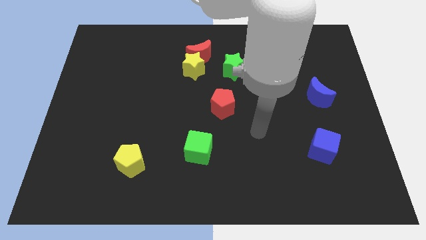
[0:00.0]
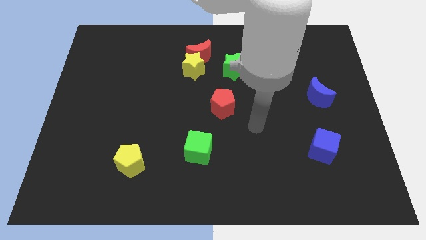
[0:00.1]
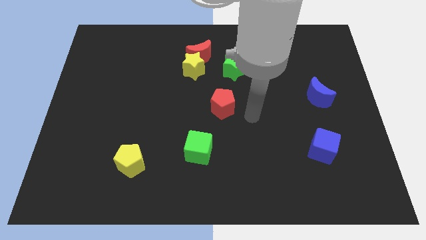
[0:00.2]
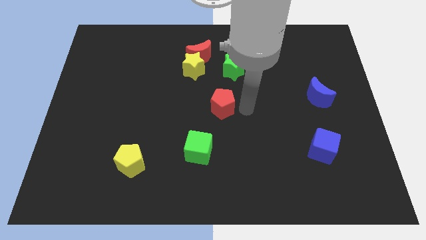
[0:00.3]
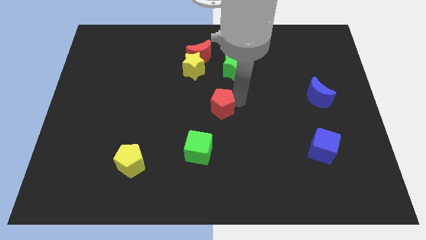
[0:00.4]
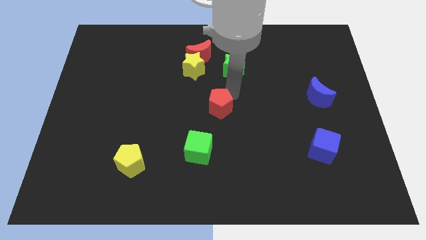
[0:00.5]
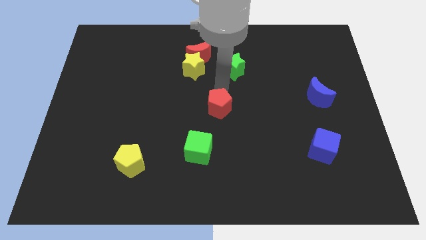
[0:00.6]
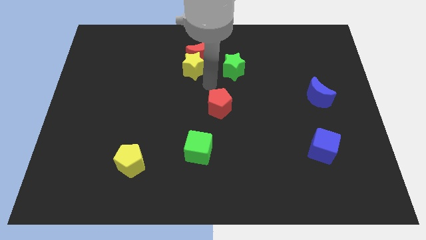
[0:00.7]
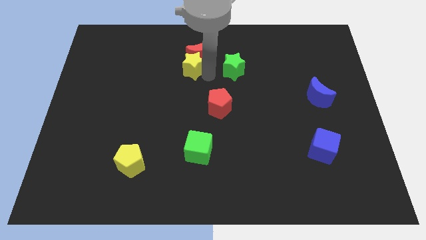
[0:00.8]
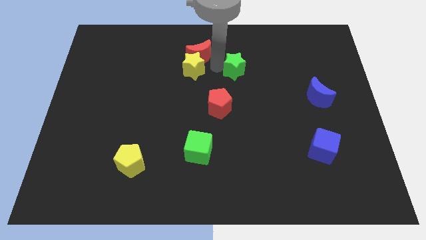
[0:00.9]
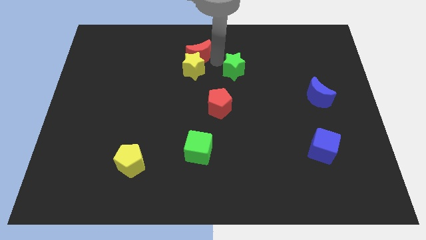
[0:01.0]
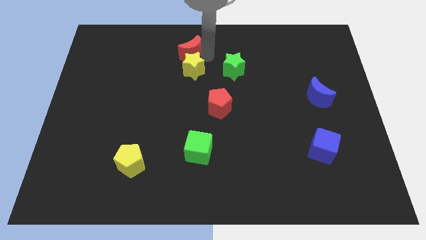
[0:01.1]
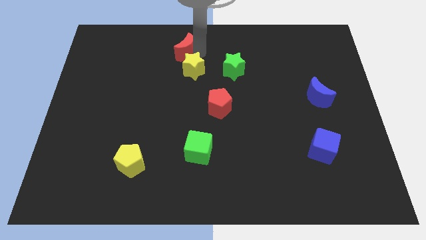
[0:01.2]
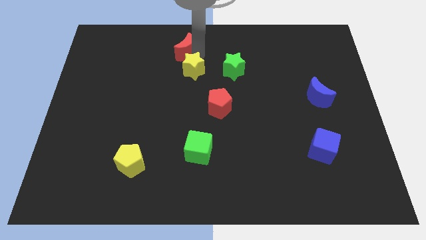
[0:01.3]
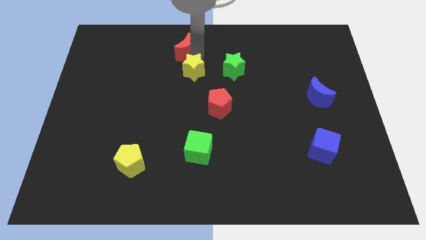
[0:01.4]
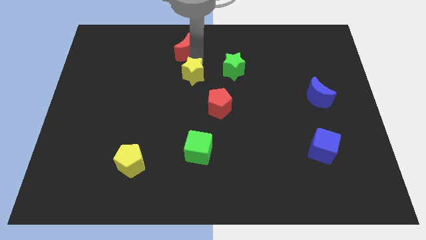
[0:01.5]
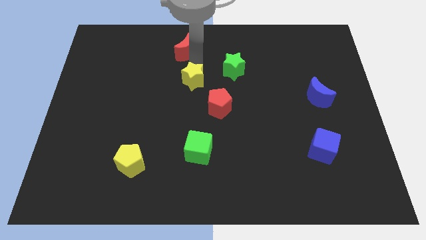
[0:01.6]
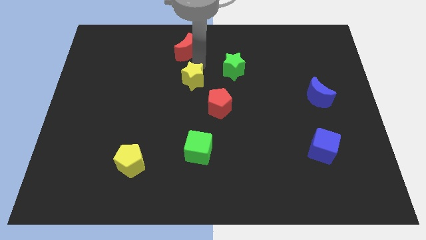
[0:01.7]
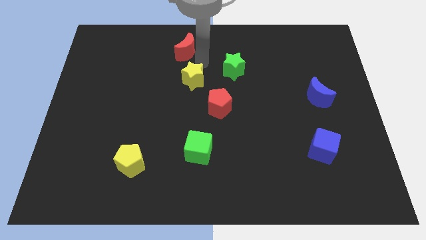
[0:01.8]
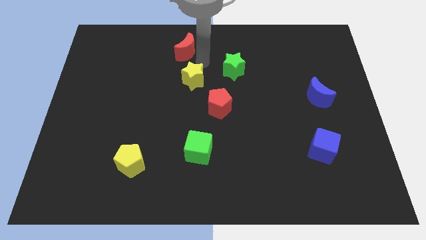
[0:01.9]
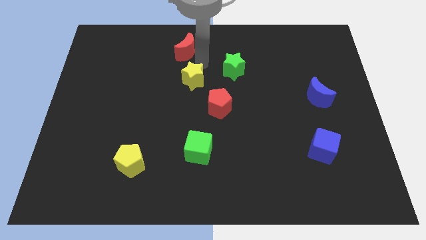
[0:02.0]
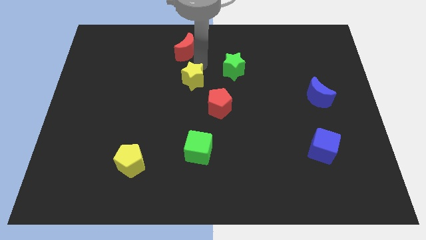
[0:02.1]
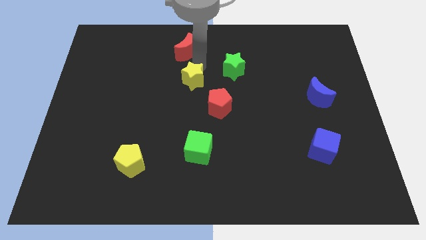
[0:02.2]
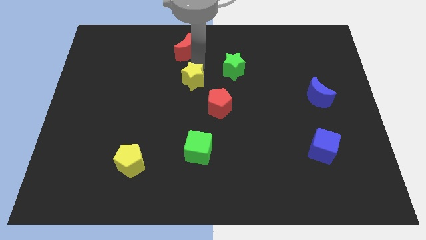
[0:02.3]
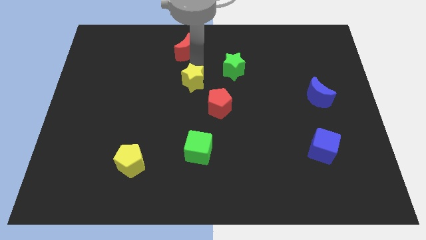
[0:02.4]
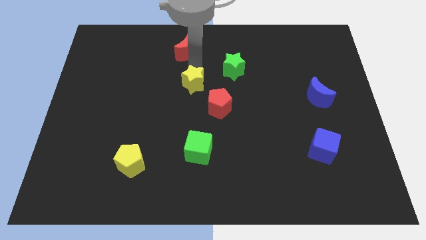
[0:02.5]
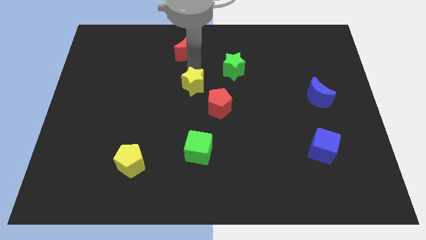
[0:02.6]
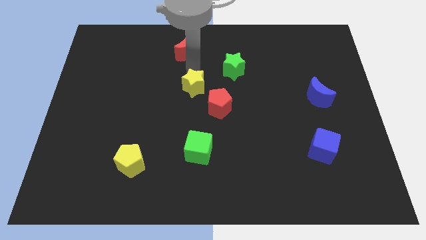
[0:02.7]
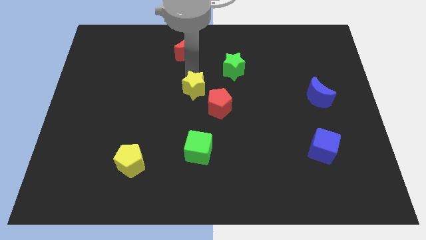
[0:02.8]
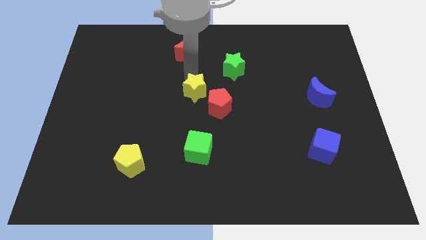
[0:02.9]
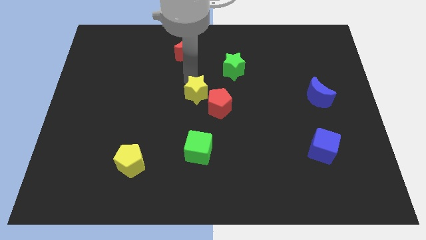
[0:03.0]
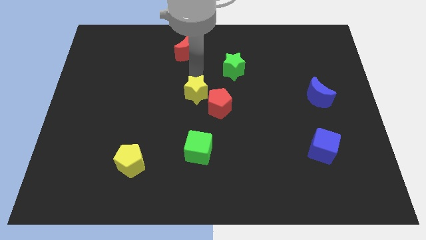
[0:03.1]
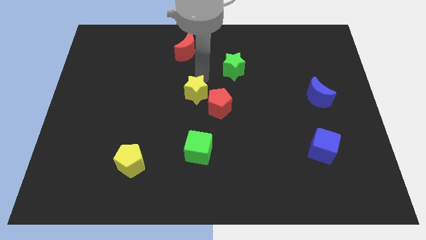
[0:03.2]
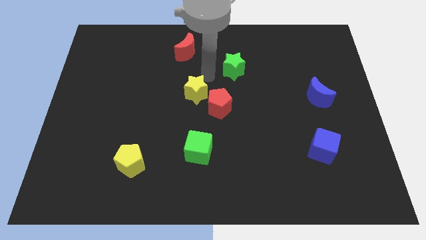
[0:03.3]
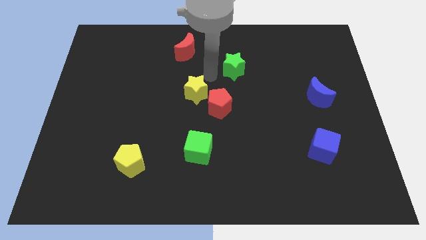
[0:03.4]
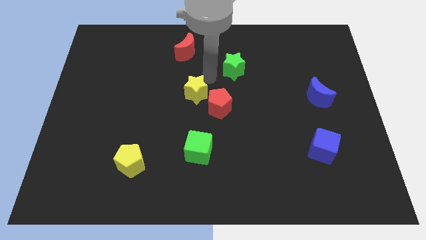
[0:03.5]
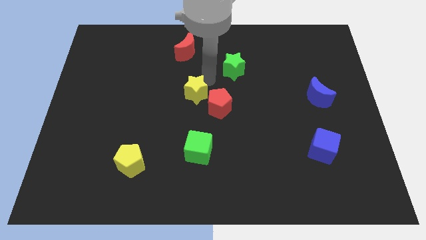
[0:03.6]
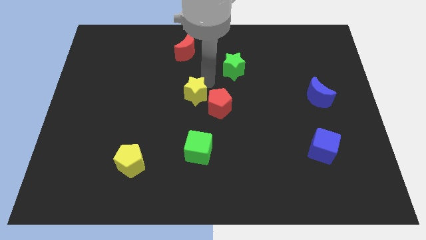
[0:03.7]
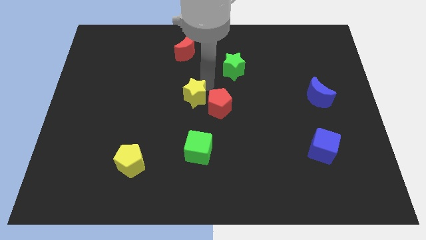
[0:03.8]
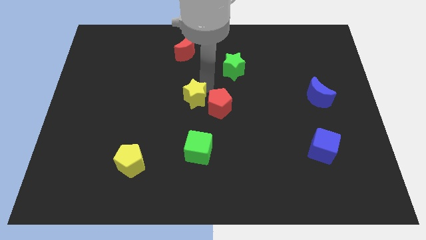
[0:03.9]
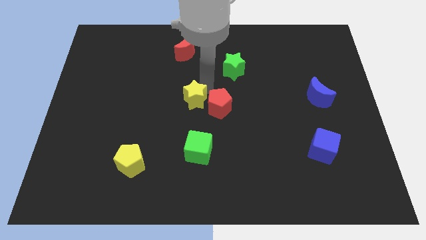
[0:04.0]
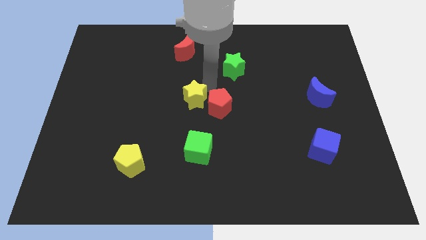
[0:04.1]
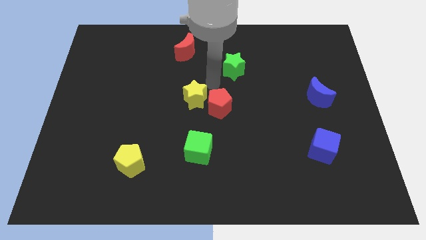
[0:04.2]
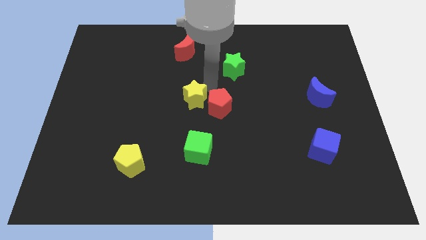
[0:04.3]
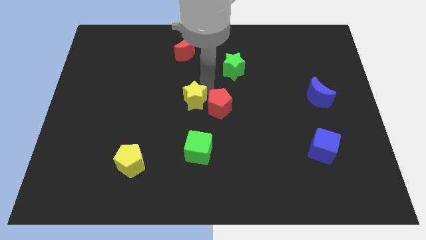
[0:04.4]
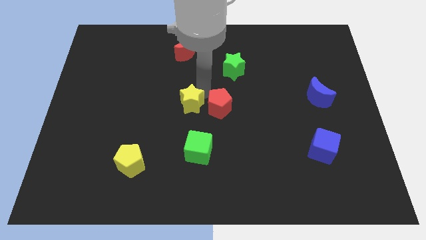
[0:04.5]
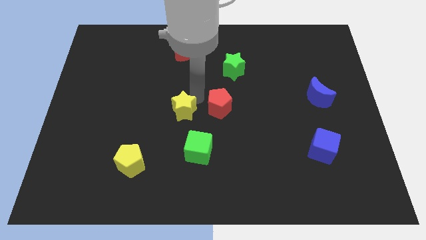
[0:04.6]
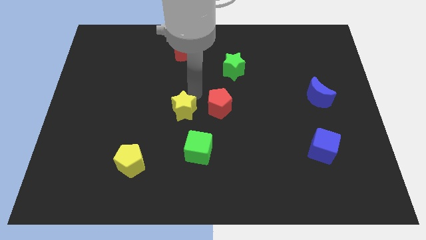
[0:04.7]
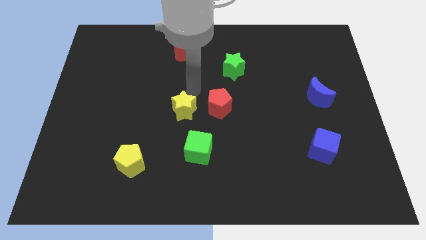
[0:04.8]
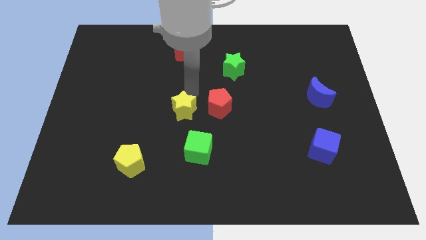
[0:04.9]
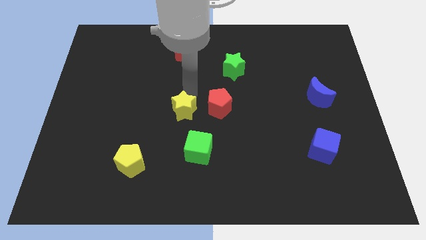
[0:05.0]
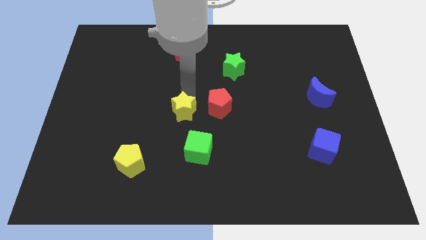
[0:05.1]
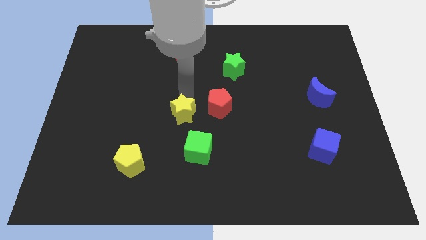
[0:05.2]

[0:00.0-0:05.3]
put the yellow star to the top left side of the green cube

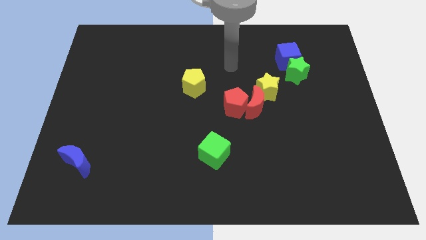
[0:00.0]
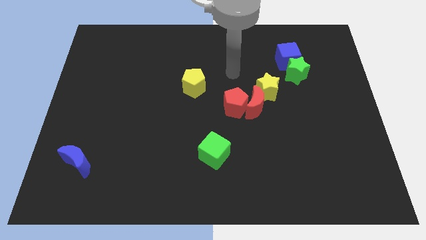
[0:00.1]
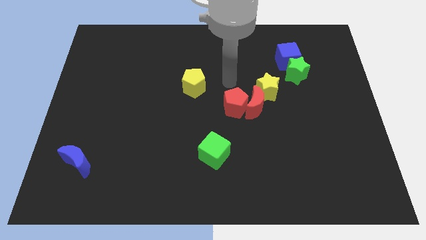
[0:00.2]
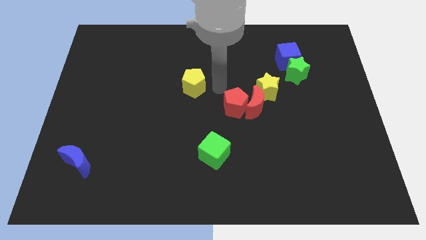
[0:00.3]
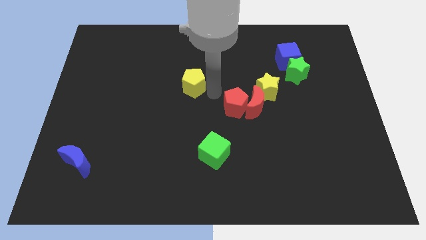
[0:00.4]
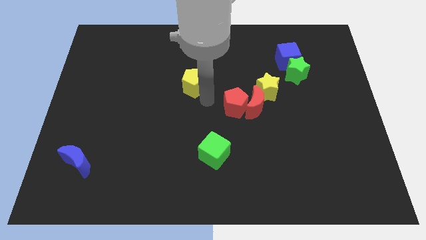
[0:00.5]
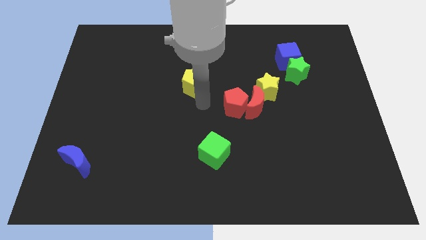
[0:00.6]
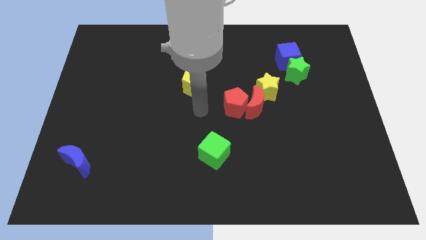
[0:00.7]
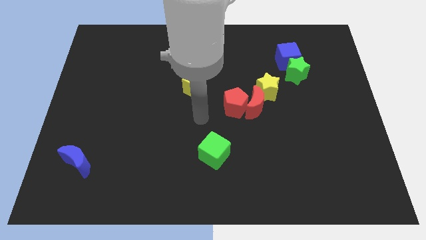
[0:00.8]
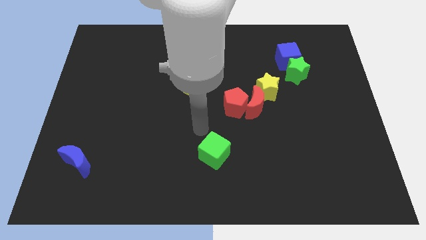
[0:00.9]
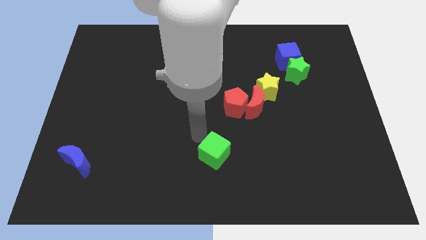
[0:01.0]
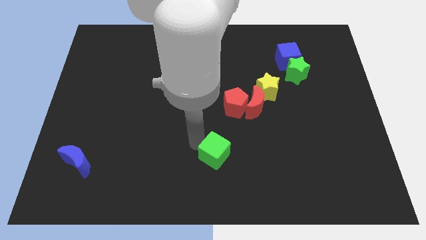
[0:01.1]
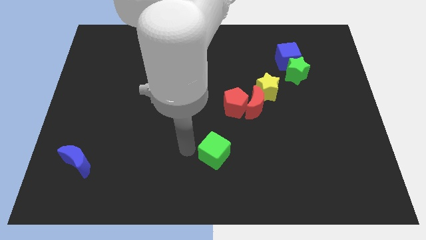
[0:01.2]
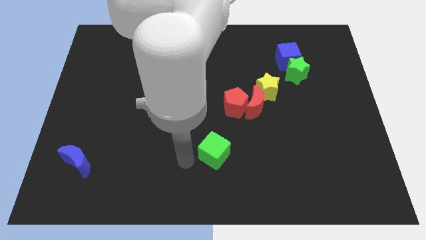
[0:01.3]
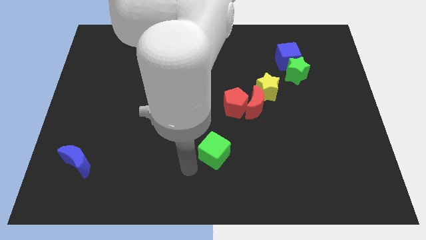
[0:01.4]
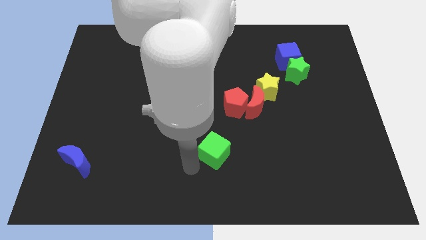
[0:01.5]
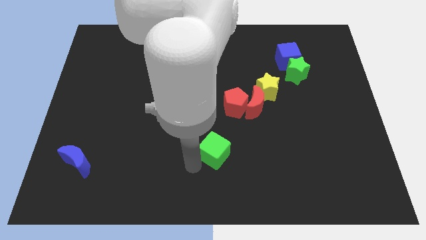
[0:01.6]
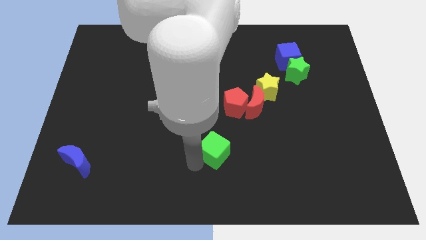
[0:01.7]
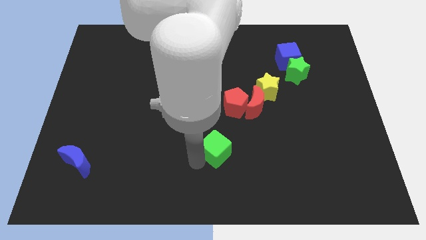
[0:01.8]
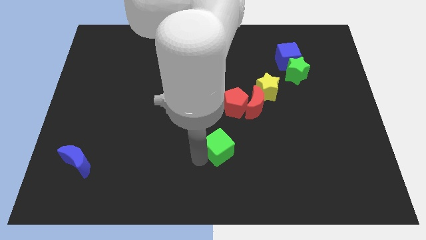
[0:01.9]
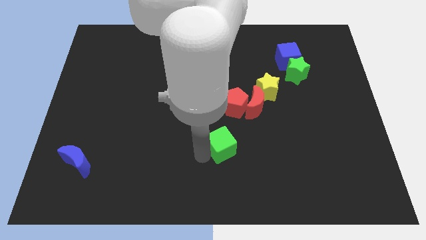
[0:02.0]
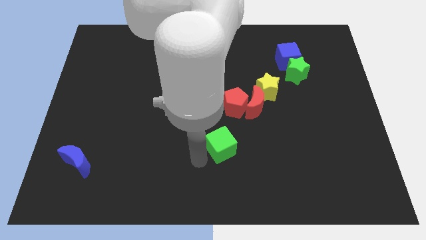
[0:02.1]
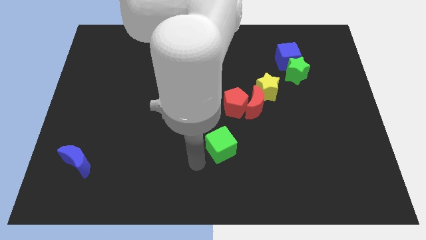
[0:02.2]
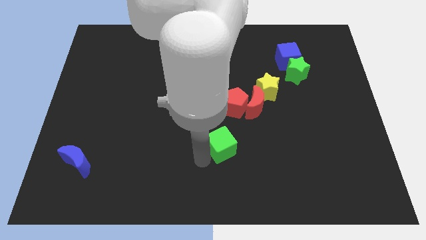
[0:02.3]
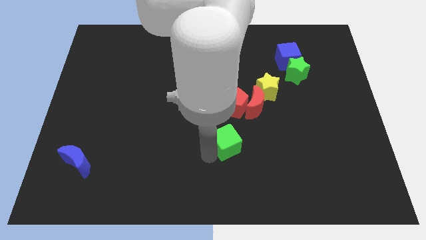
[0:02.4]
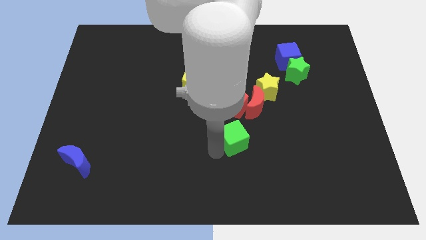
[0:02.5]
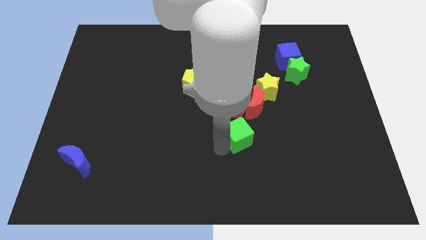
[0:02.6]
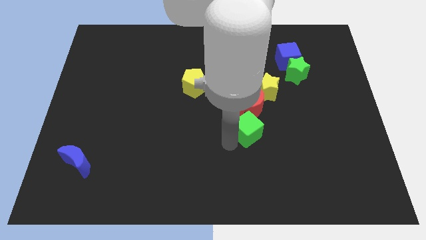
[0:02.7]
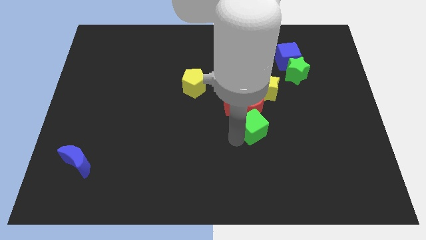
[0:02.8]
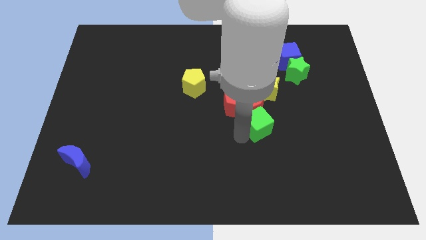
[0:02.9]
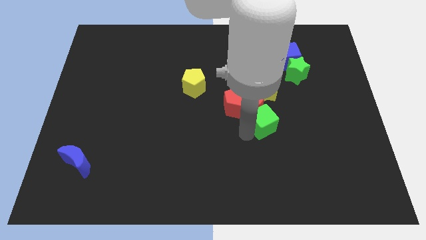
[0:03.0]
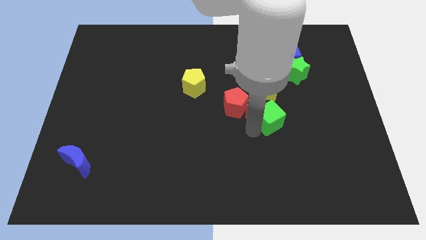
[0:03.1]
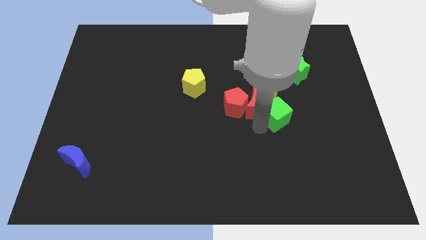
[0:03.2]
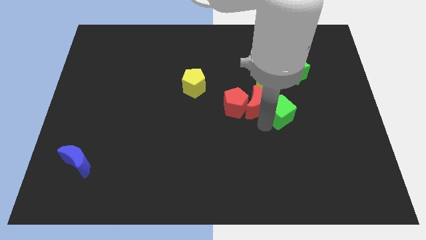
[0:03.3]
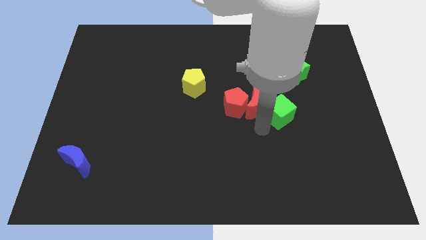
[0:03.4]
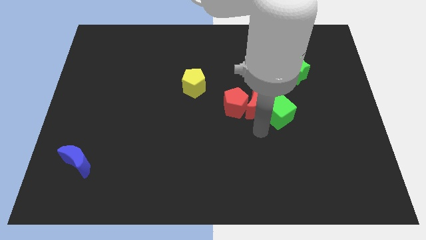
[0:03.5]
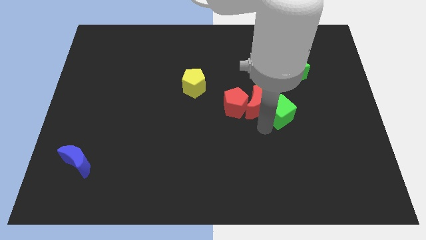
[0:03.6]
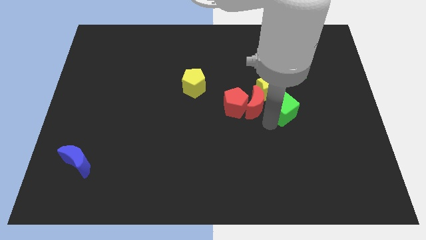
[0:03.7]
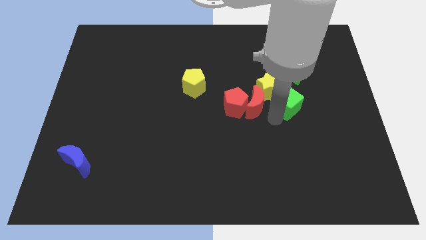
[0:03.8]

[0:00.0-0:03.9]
put the green cube right of the yellow star
